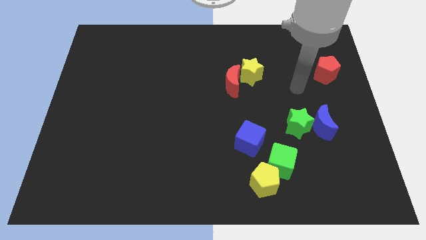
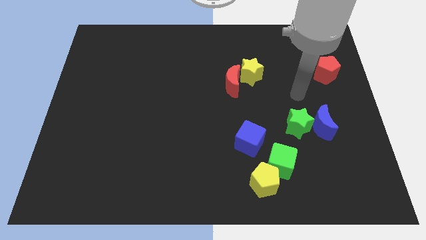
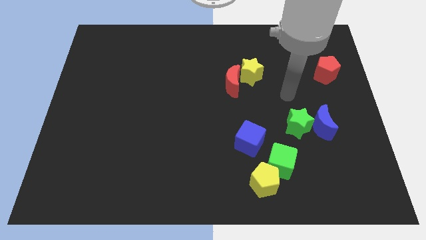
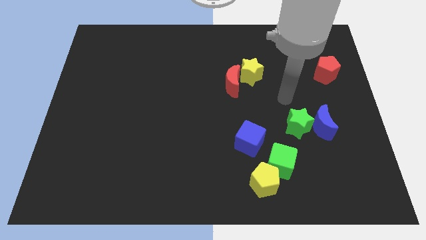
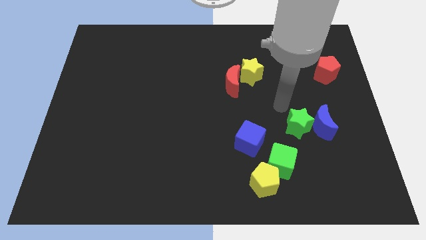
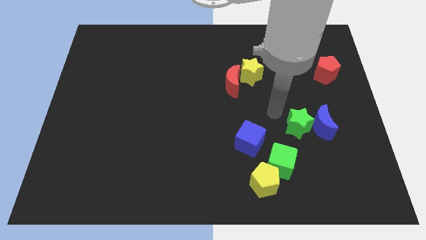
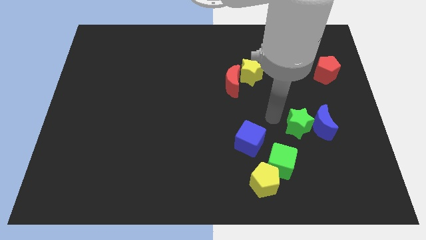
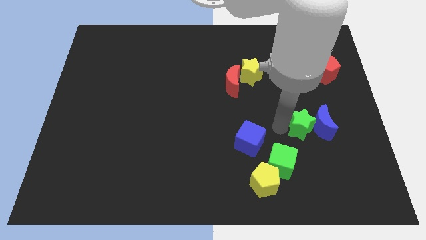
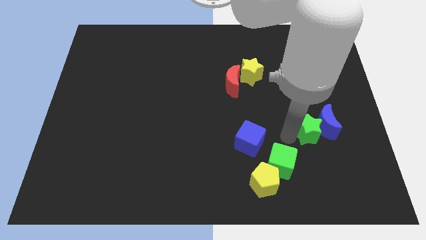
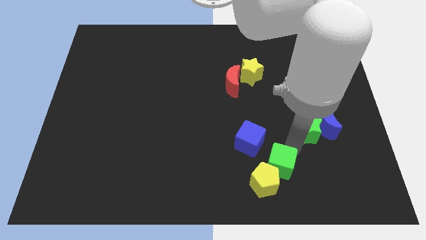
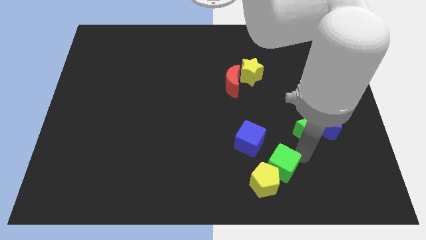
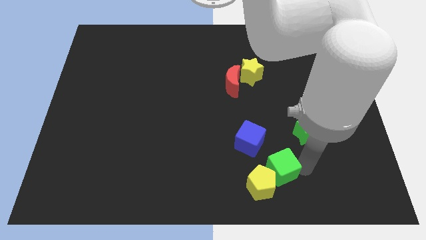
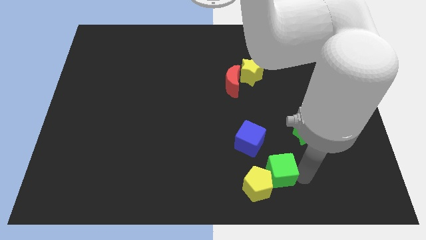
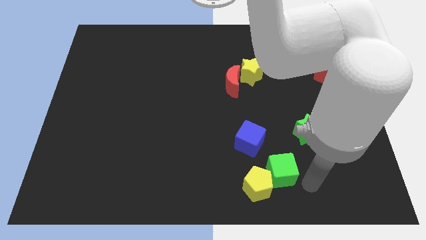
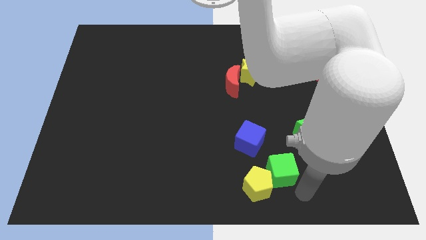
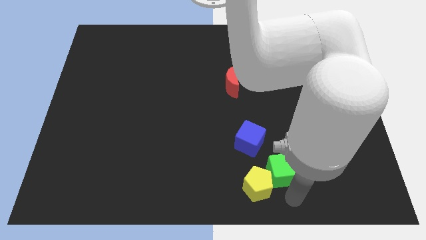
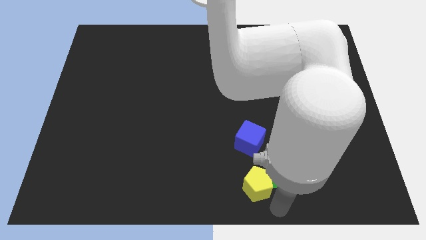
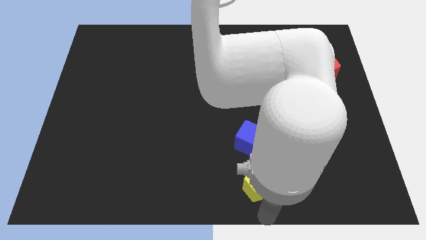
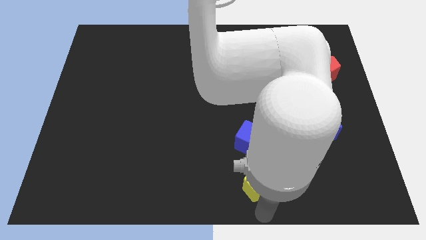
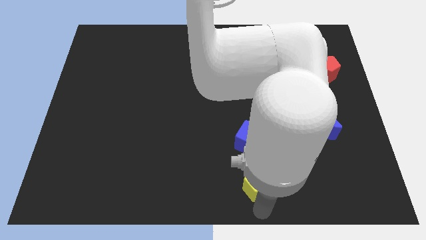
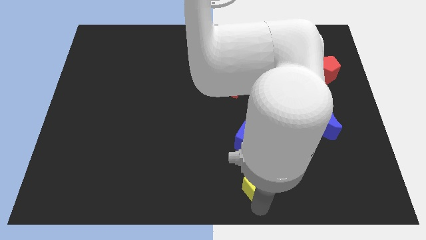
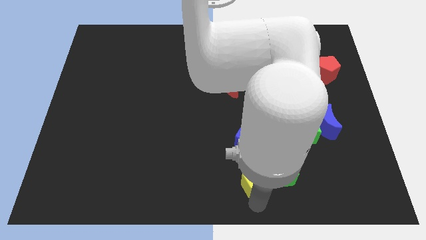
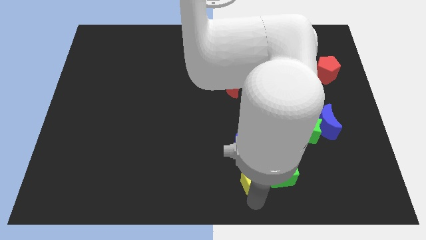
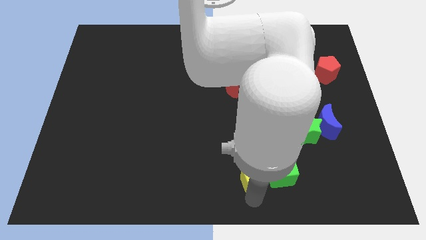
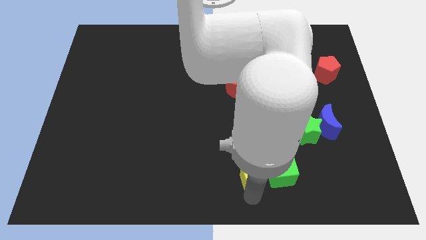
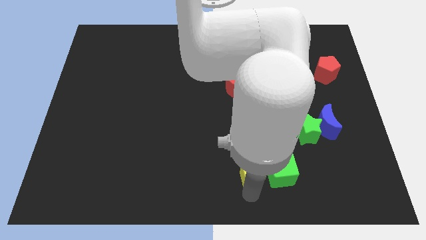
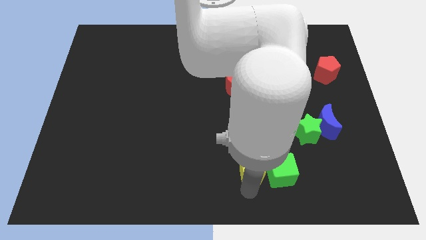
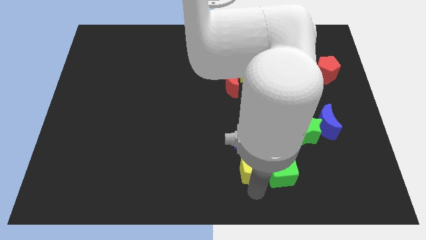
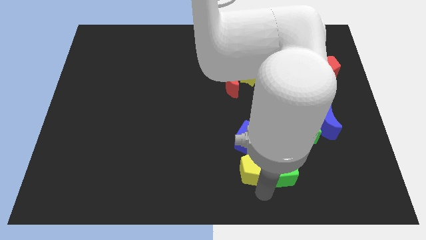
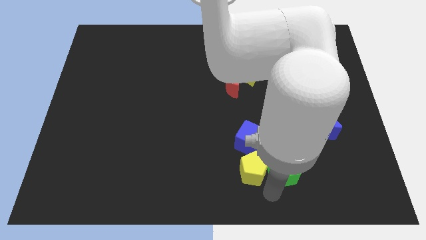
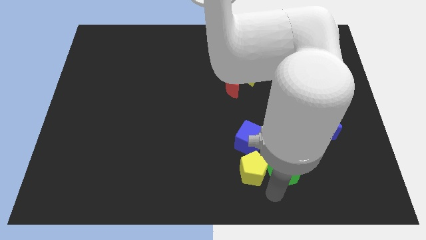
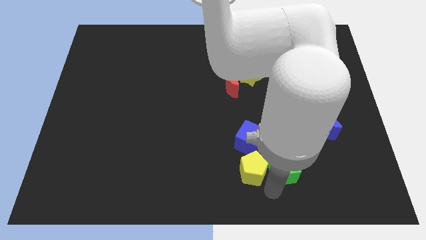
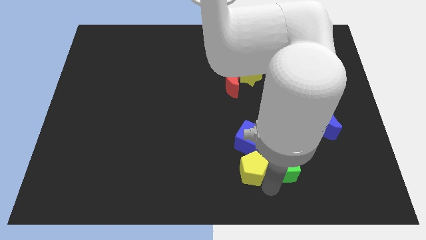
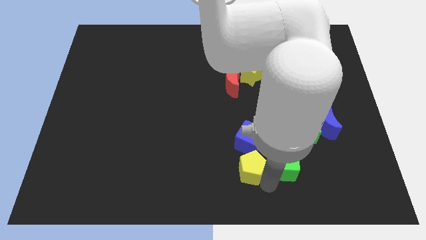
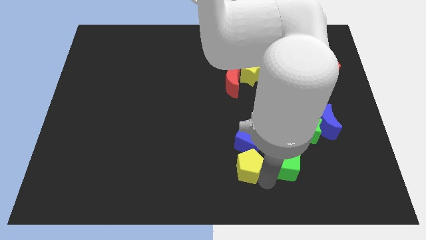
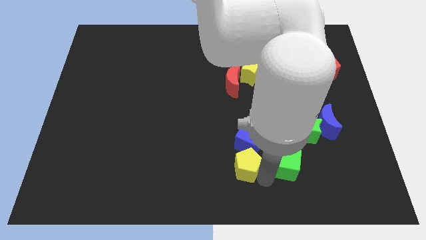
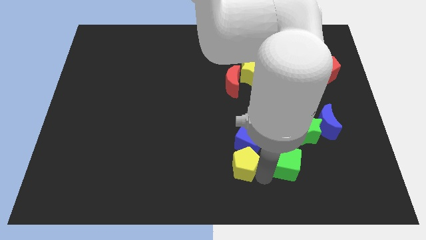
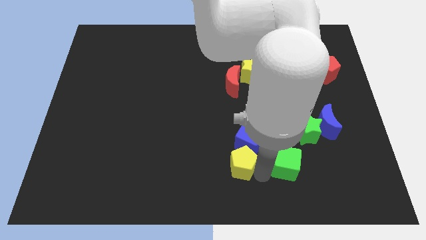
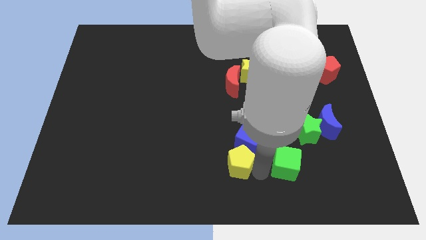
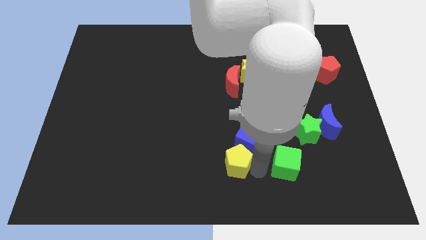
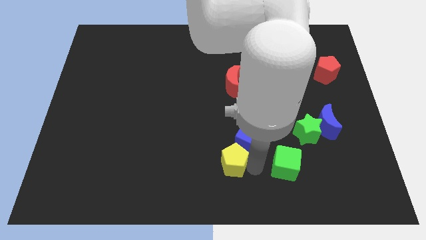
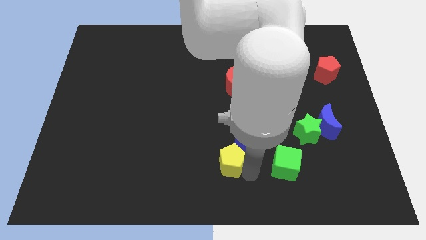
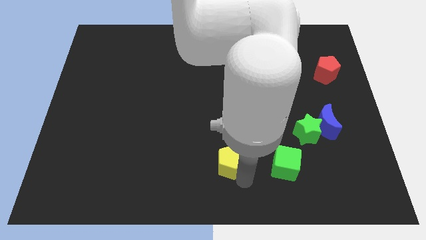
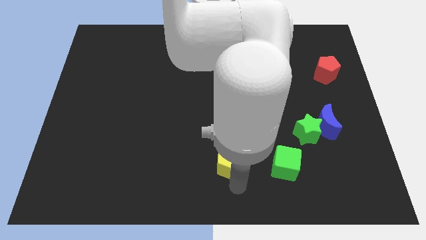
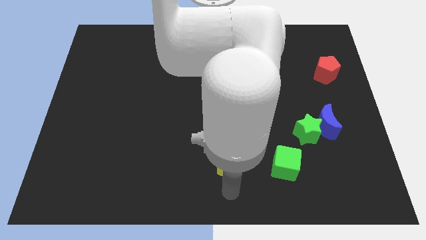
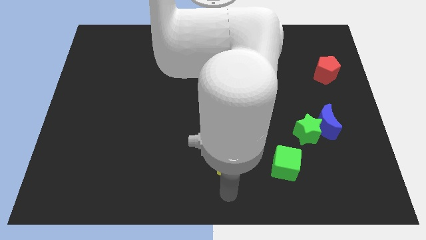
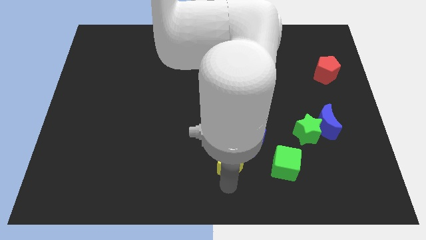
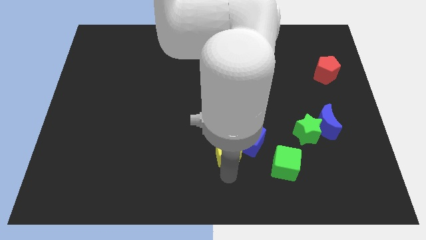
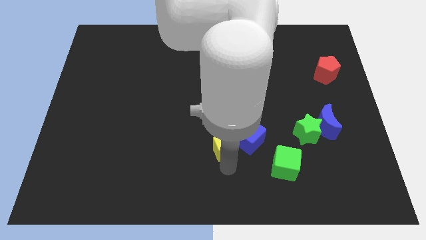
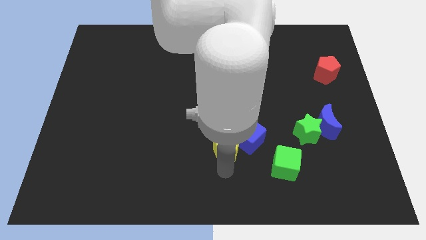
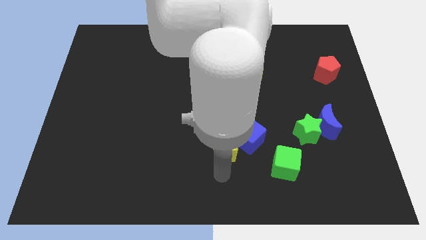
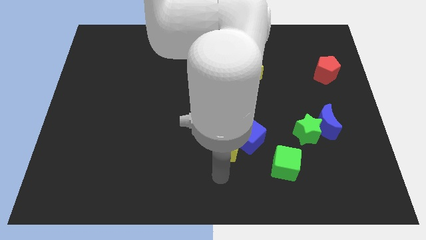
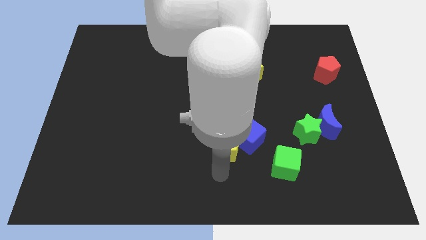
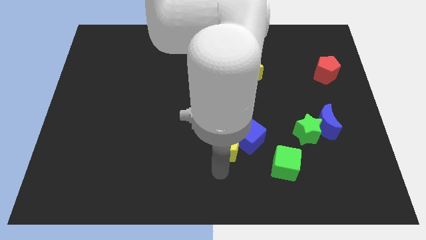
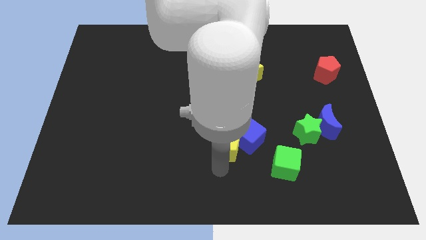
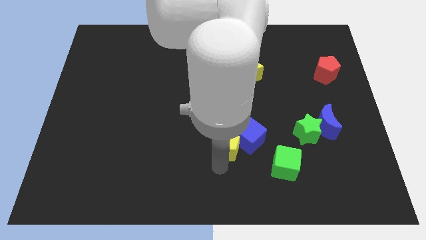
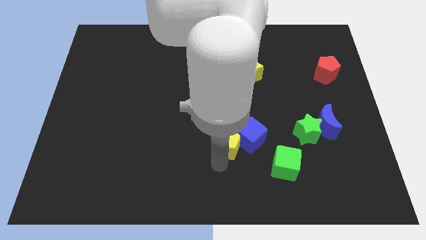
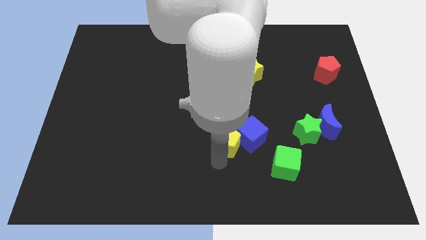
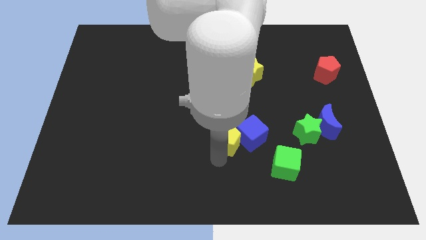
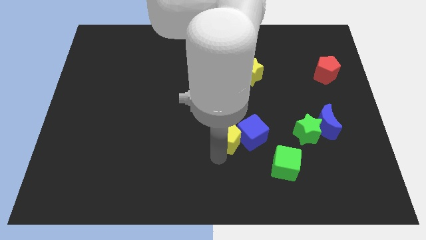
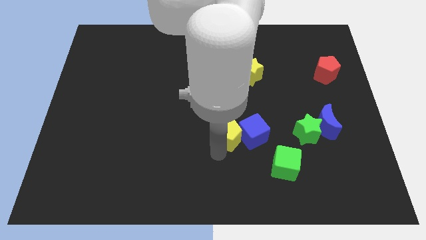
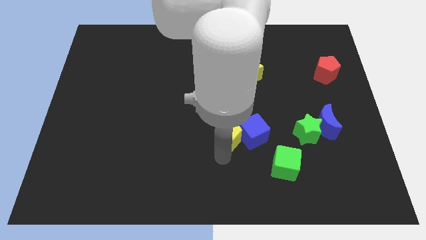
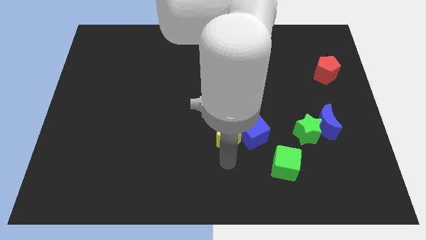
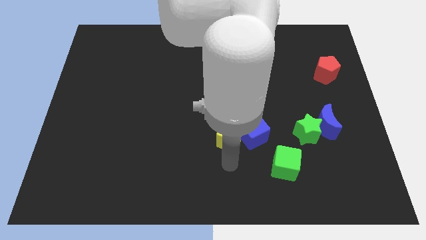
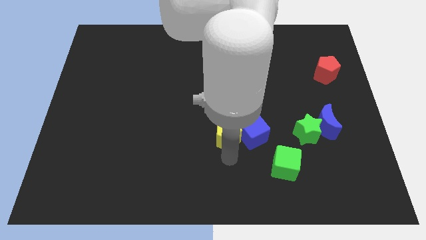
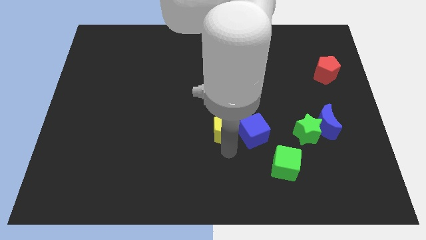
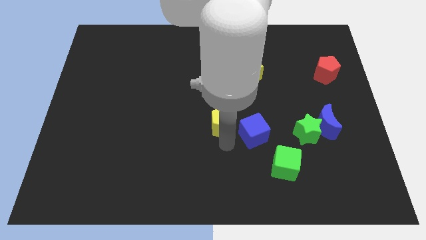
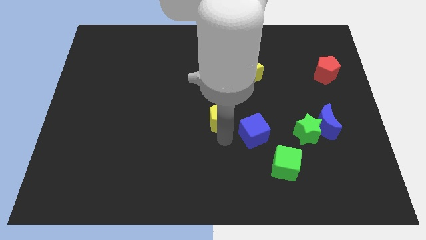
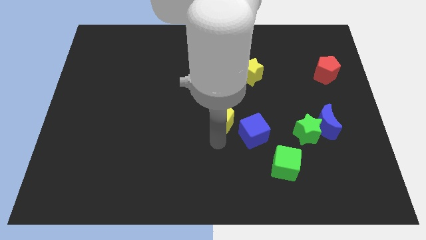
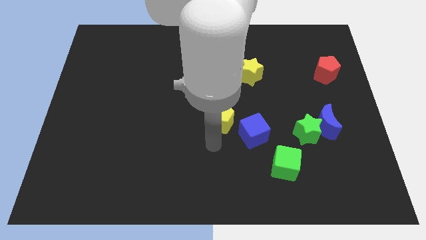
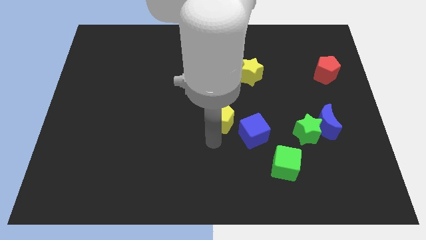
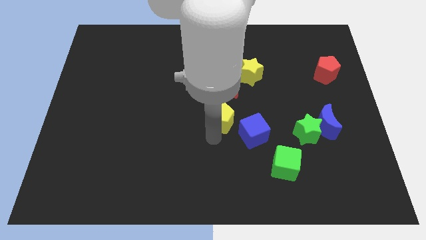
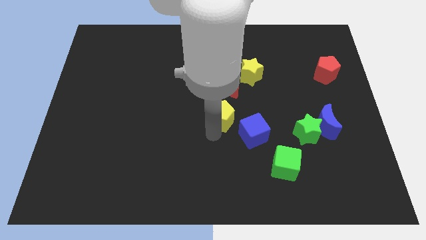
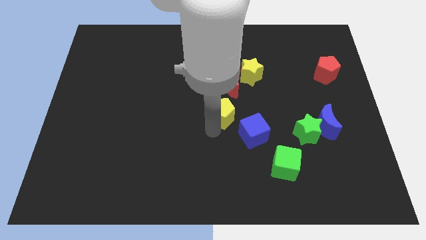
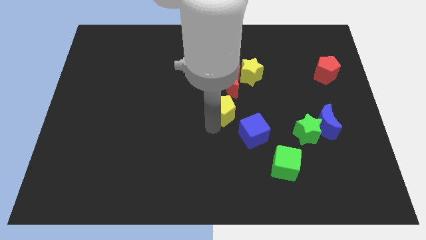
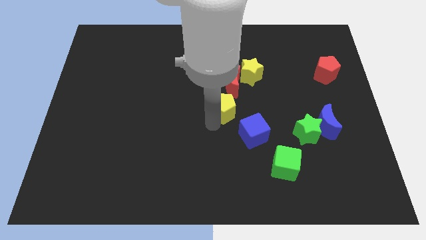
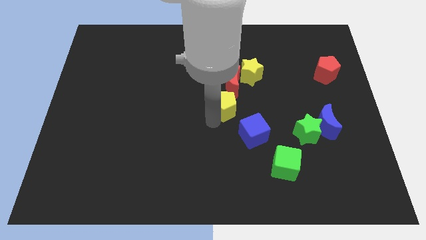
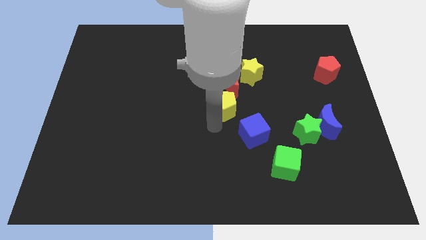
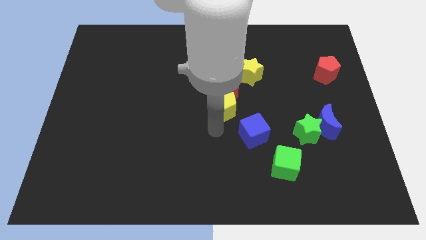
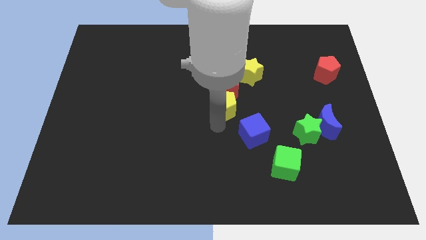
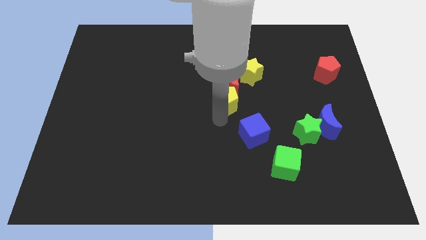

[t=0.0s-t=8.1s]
push the yellow pentagon to the bottom left of the yellow star
